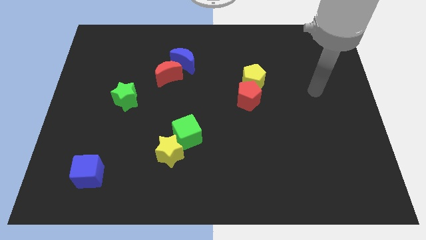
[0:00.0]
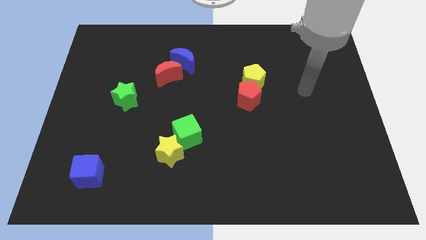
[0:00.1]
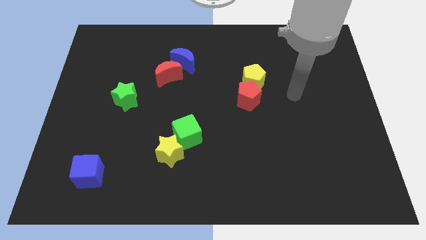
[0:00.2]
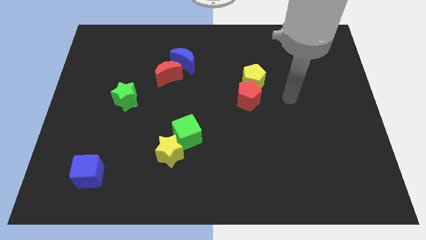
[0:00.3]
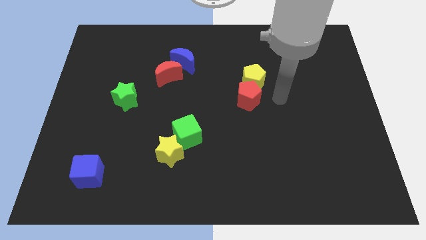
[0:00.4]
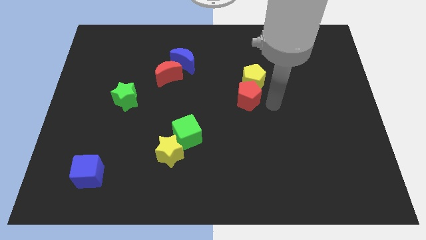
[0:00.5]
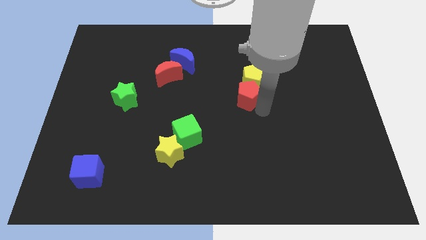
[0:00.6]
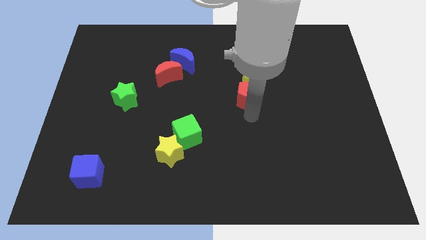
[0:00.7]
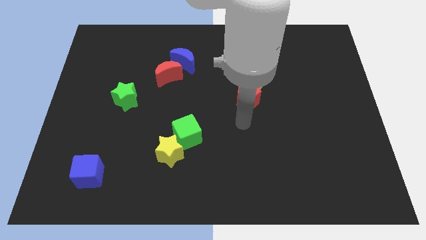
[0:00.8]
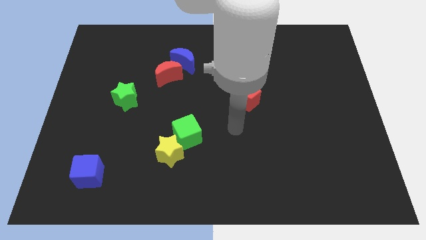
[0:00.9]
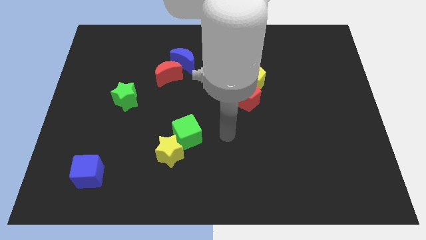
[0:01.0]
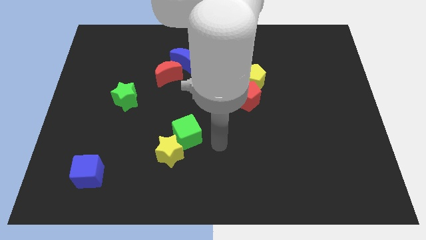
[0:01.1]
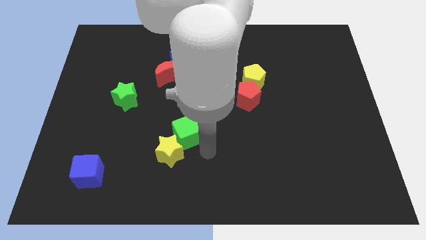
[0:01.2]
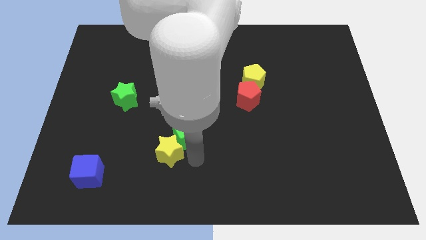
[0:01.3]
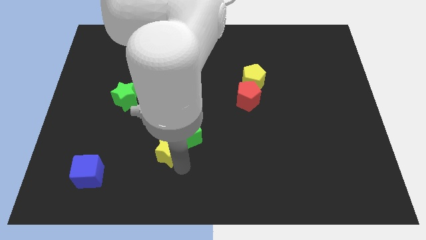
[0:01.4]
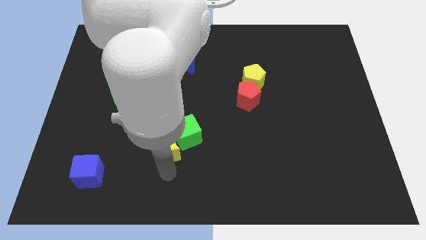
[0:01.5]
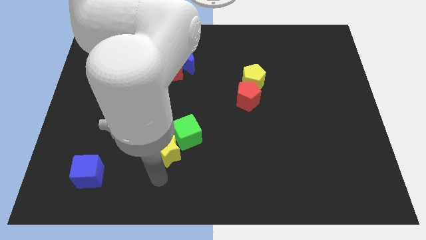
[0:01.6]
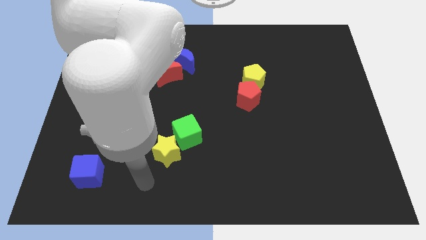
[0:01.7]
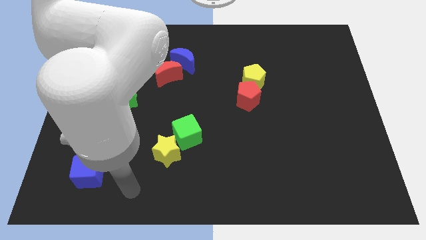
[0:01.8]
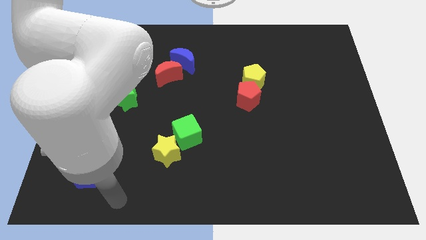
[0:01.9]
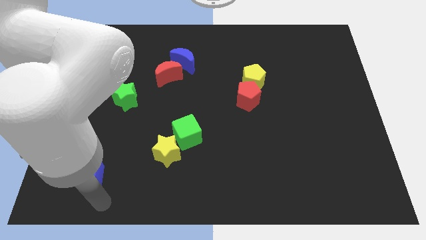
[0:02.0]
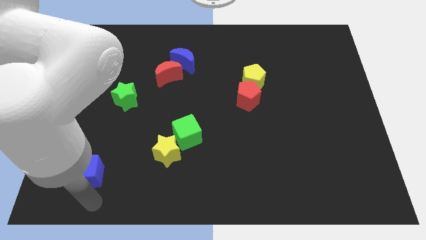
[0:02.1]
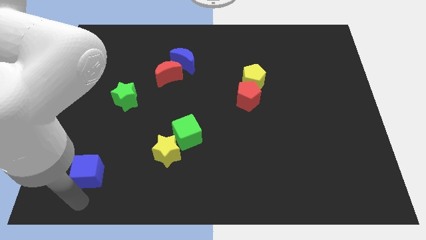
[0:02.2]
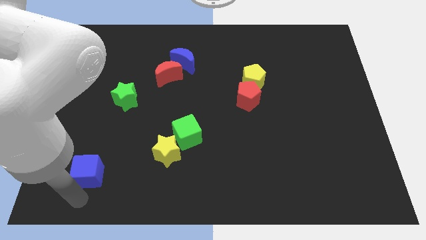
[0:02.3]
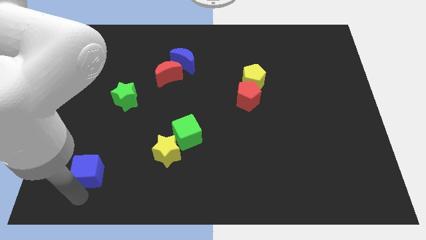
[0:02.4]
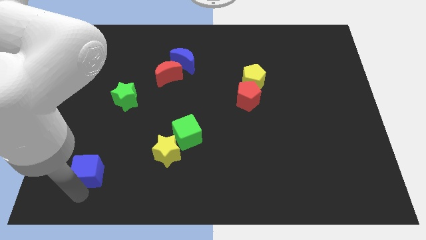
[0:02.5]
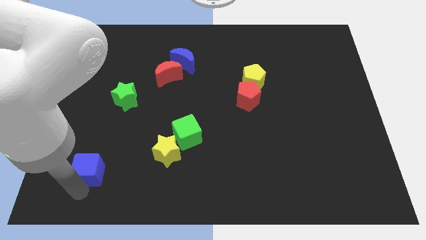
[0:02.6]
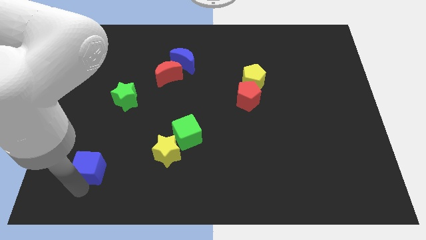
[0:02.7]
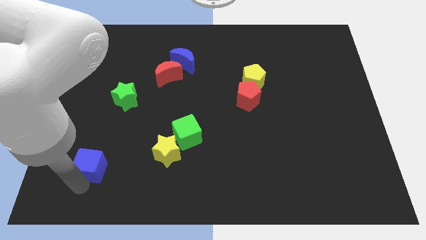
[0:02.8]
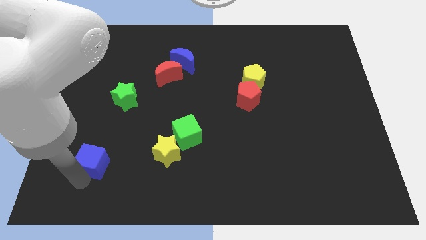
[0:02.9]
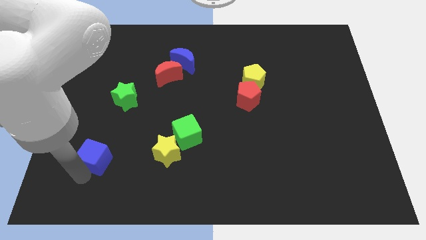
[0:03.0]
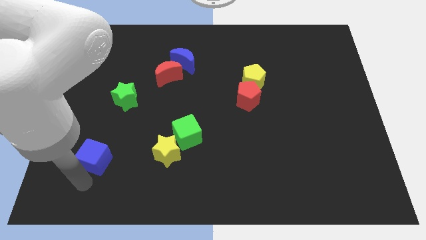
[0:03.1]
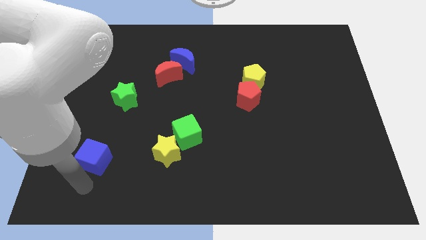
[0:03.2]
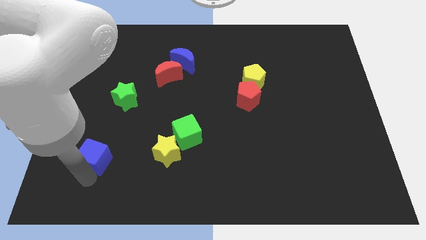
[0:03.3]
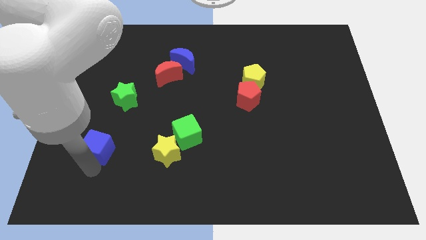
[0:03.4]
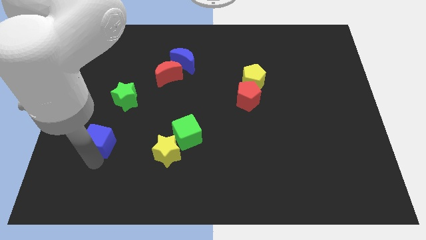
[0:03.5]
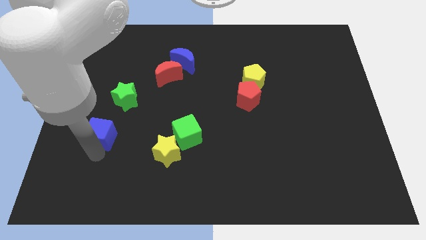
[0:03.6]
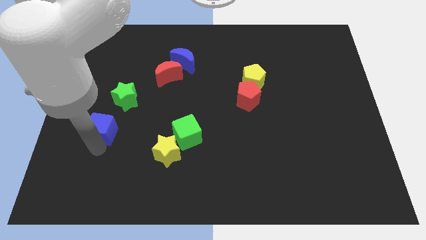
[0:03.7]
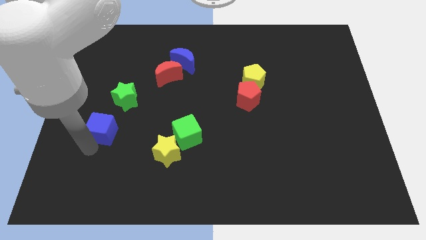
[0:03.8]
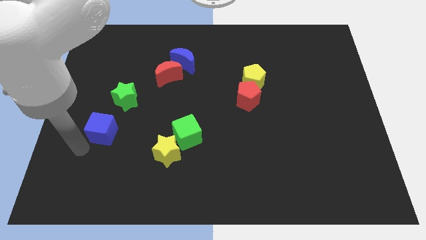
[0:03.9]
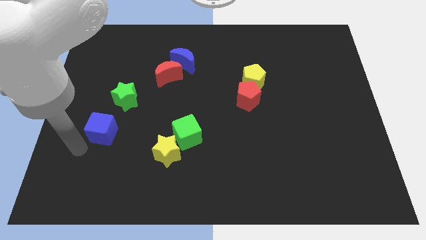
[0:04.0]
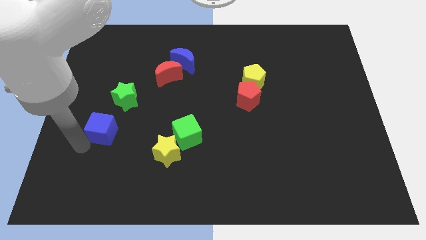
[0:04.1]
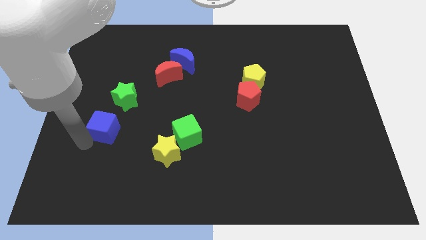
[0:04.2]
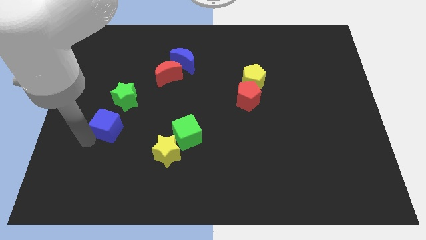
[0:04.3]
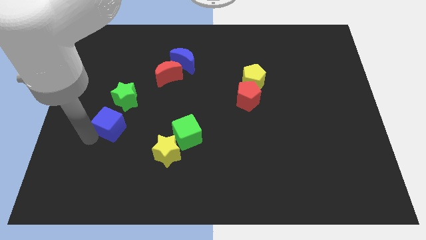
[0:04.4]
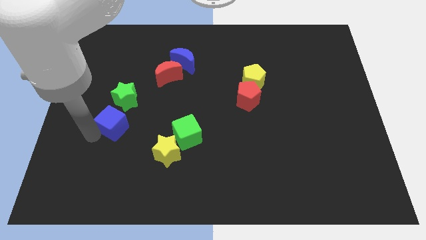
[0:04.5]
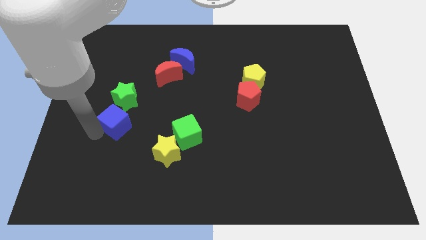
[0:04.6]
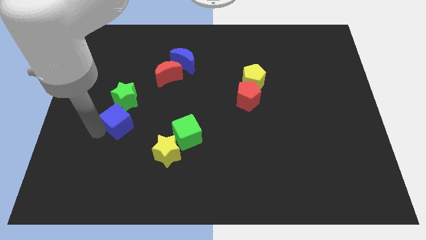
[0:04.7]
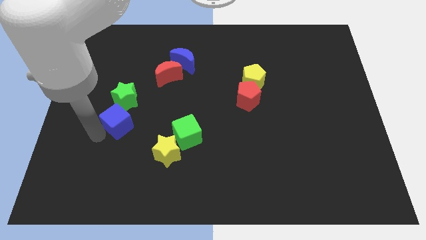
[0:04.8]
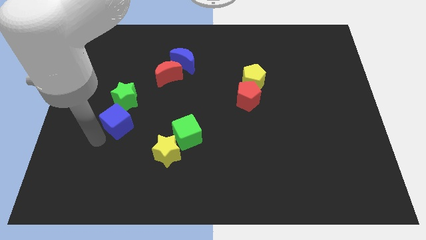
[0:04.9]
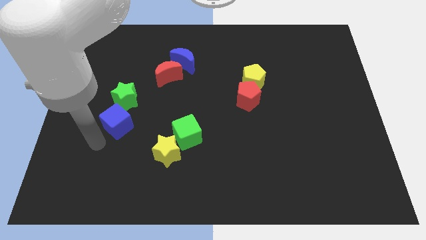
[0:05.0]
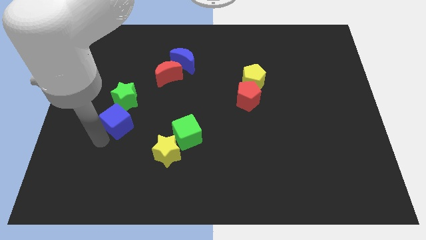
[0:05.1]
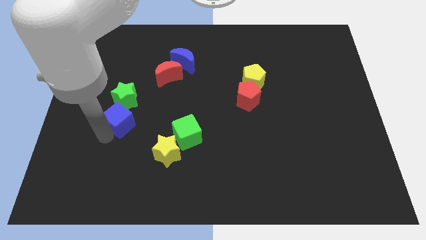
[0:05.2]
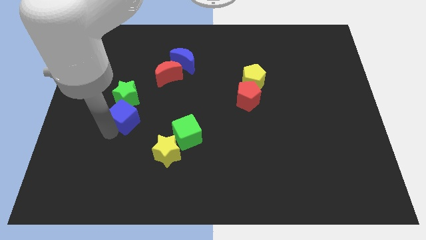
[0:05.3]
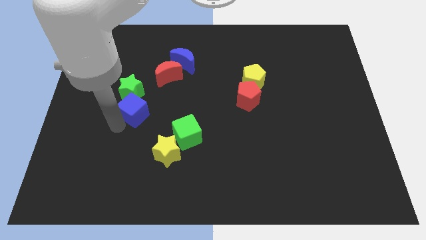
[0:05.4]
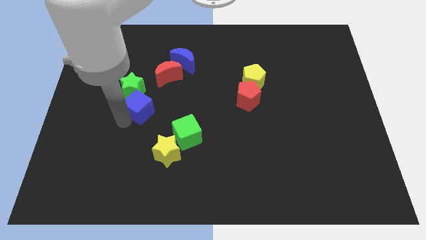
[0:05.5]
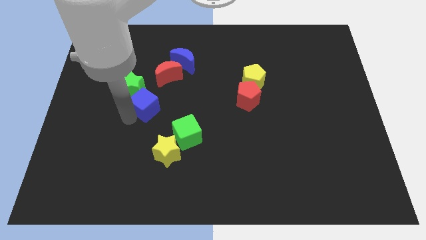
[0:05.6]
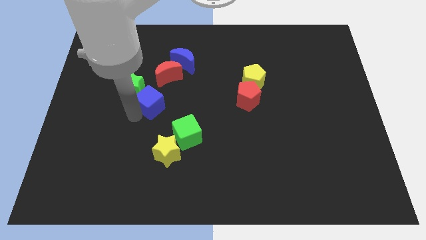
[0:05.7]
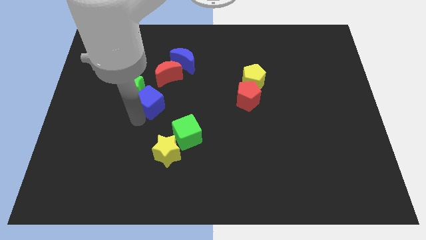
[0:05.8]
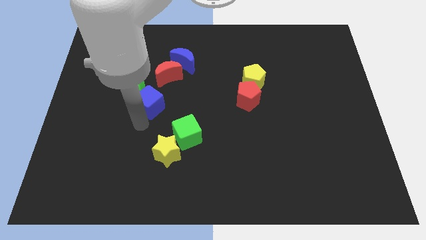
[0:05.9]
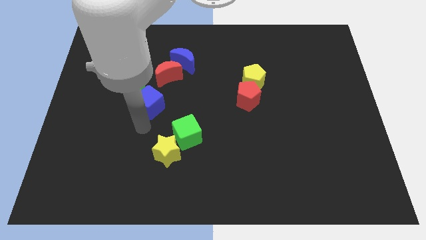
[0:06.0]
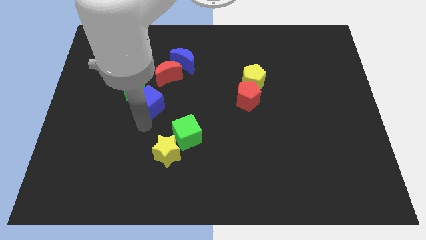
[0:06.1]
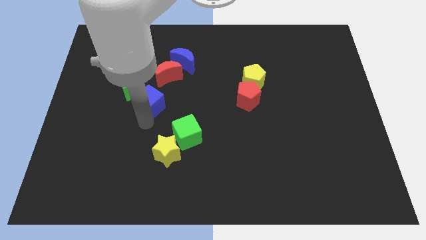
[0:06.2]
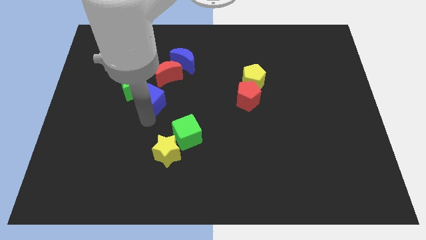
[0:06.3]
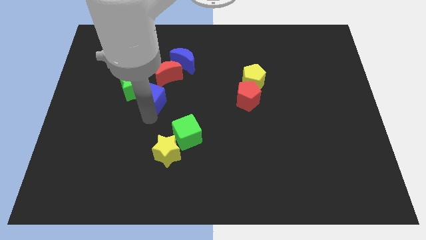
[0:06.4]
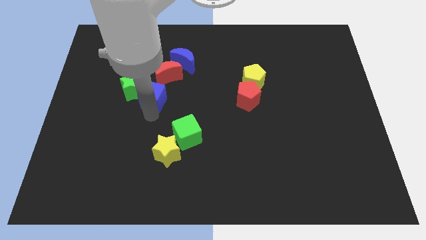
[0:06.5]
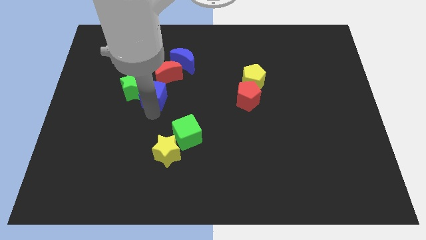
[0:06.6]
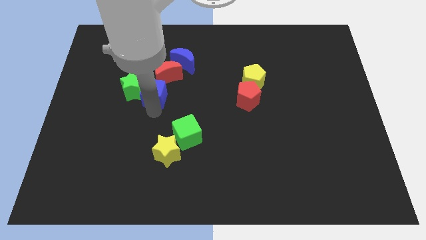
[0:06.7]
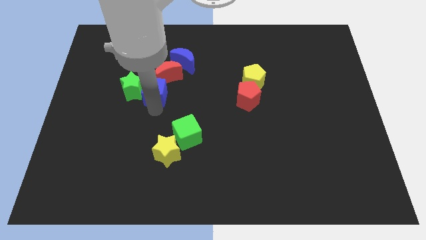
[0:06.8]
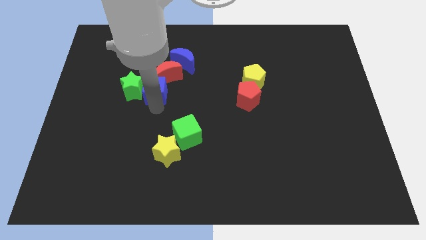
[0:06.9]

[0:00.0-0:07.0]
put the blue cube towards the red moon

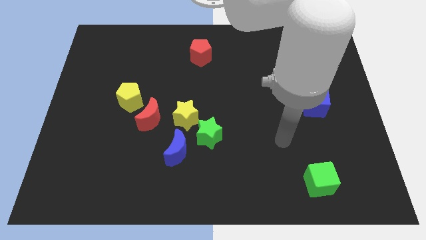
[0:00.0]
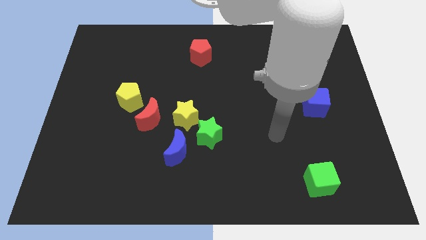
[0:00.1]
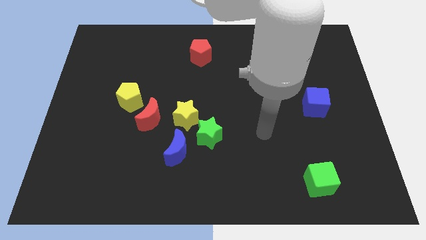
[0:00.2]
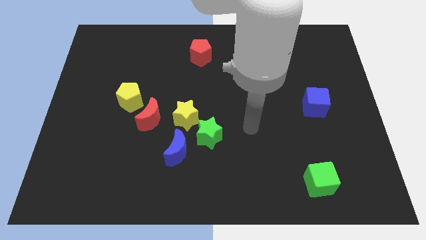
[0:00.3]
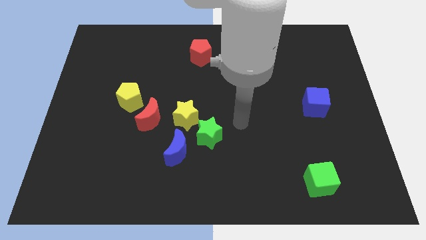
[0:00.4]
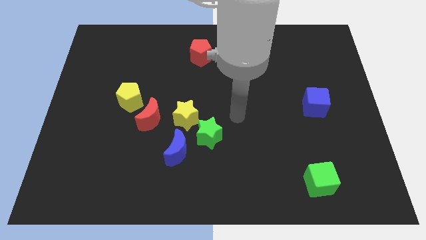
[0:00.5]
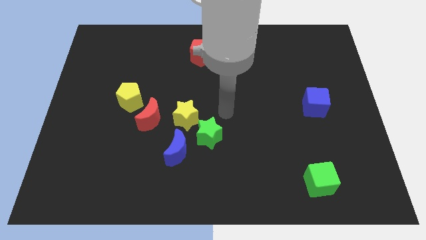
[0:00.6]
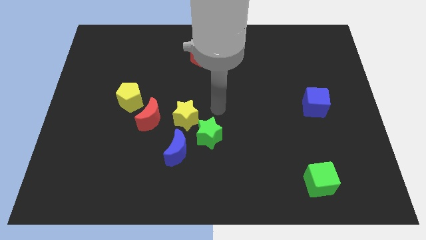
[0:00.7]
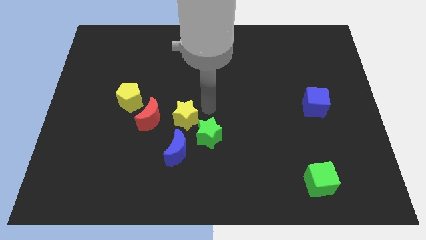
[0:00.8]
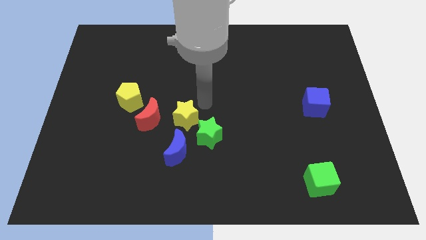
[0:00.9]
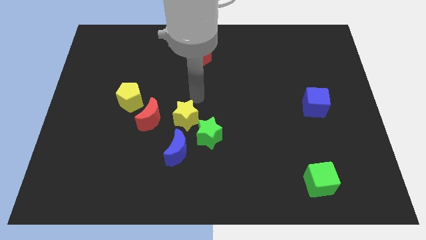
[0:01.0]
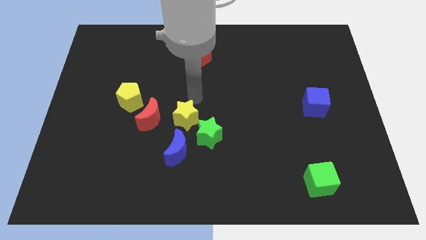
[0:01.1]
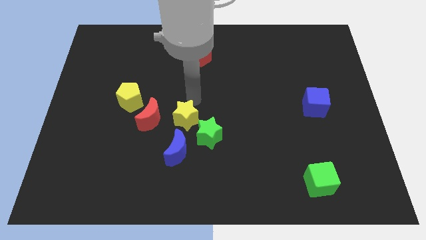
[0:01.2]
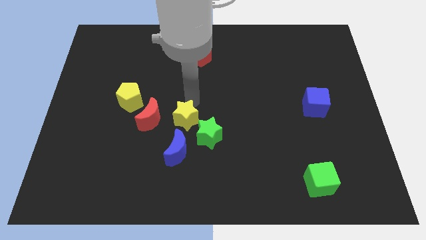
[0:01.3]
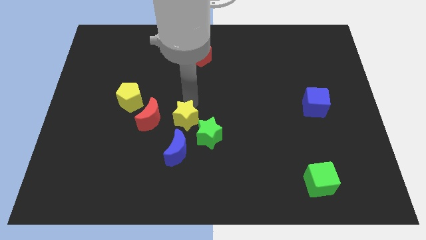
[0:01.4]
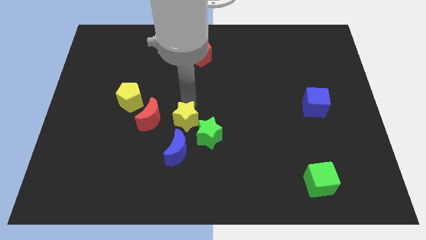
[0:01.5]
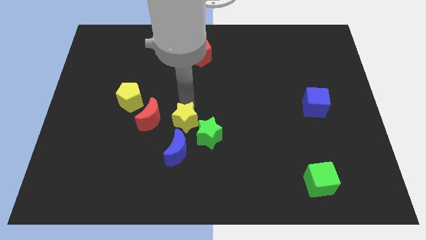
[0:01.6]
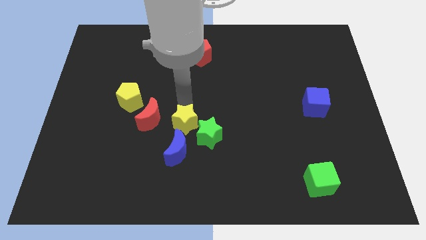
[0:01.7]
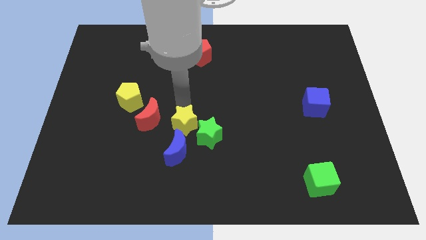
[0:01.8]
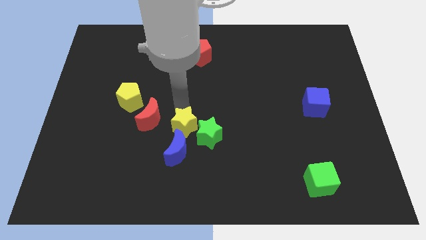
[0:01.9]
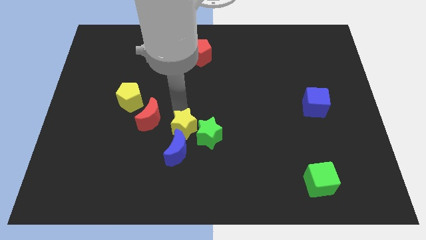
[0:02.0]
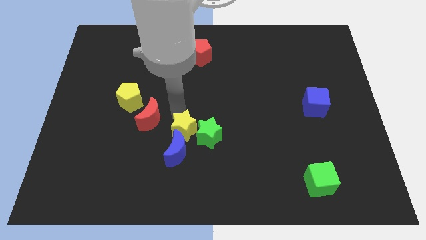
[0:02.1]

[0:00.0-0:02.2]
move the yellow star to the blue moon
